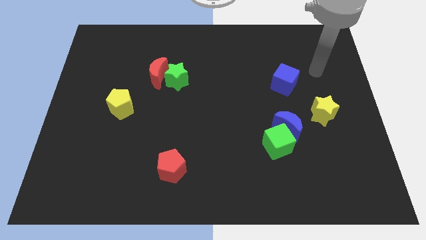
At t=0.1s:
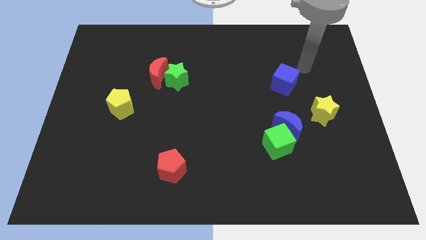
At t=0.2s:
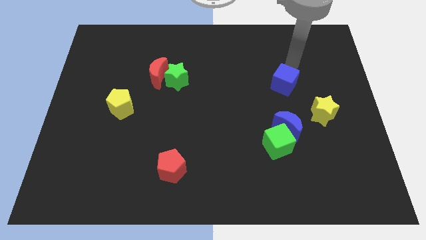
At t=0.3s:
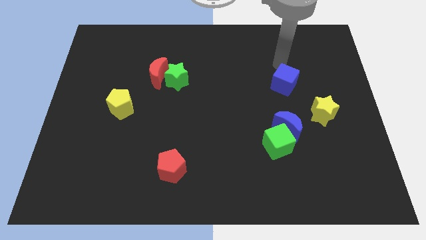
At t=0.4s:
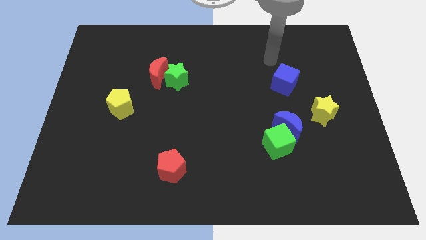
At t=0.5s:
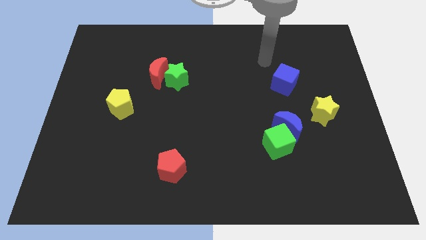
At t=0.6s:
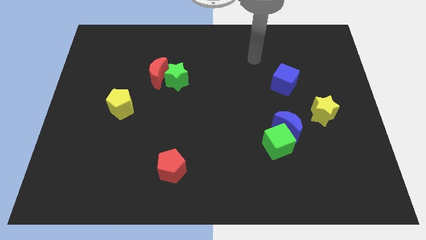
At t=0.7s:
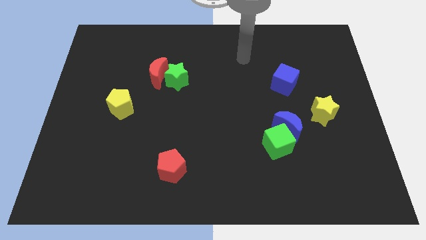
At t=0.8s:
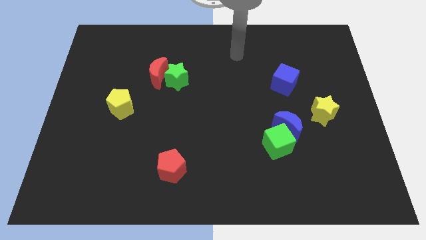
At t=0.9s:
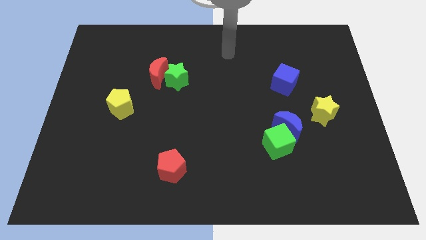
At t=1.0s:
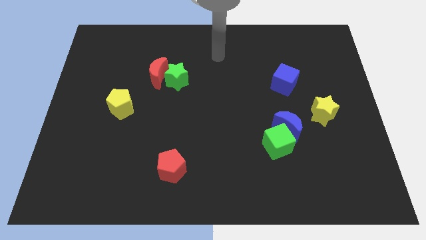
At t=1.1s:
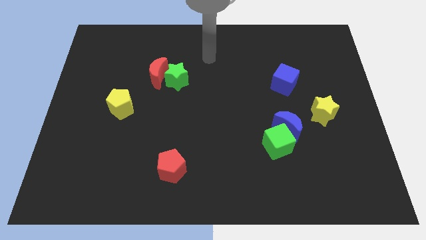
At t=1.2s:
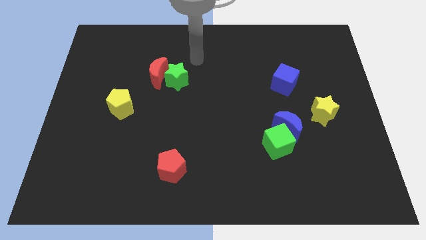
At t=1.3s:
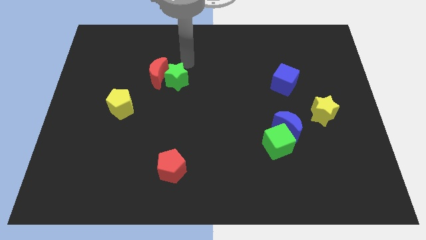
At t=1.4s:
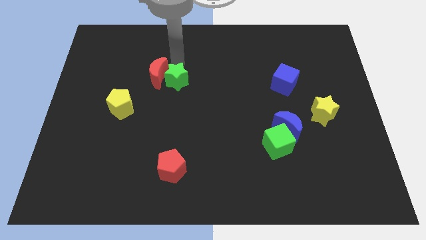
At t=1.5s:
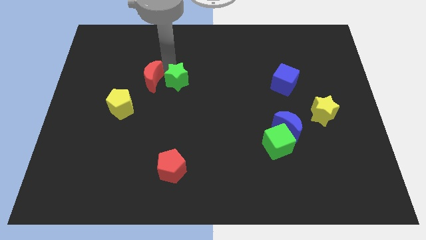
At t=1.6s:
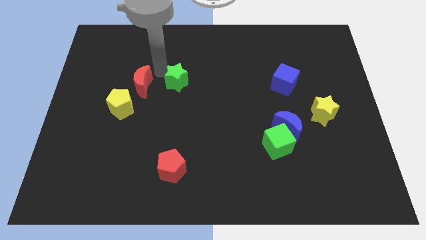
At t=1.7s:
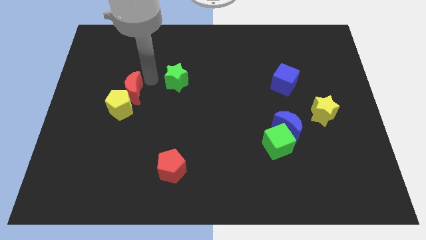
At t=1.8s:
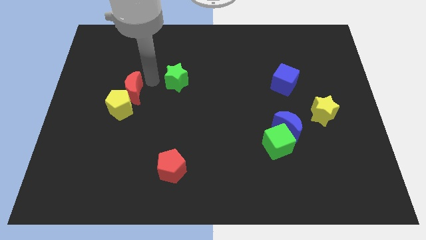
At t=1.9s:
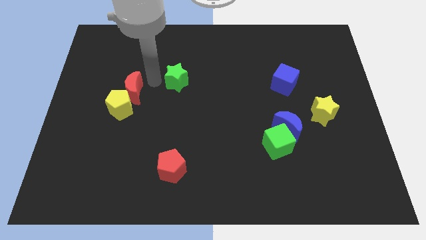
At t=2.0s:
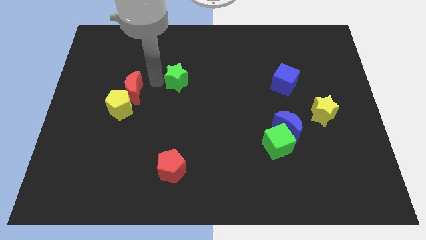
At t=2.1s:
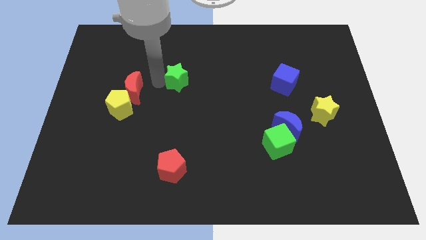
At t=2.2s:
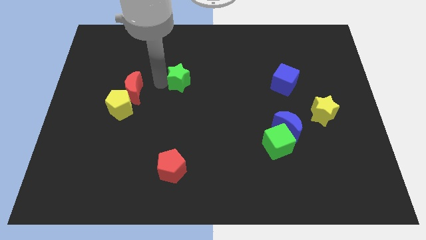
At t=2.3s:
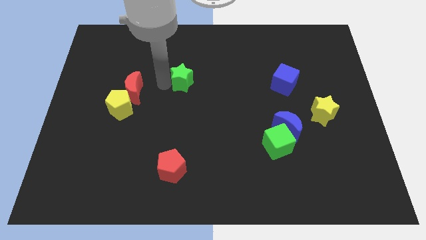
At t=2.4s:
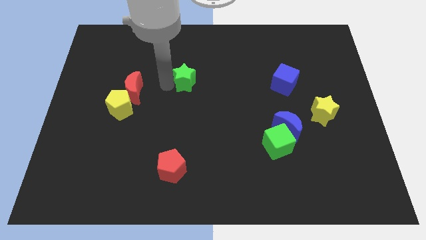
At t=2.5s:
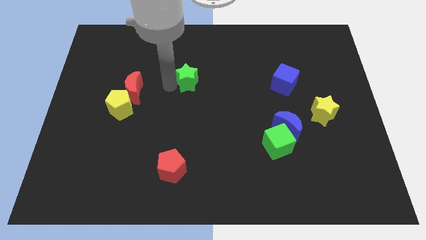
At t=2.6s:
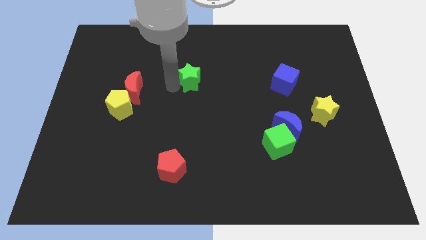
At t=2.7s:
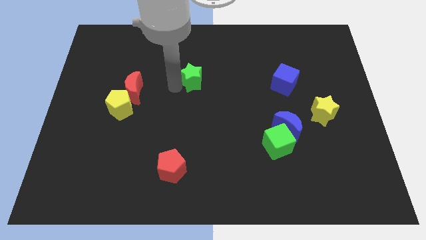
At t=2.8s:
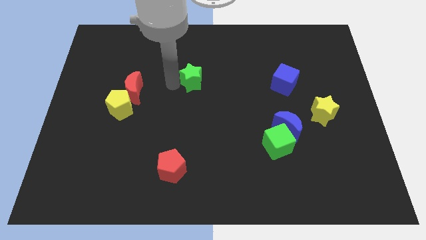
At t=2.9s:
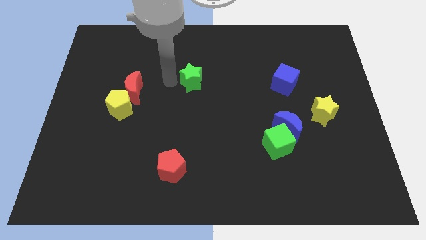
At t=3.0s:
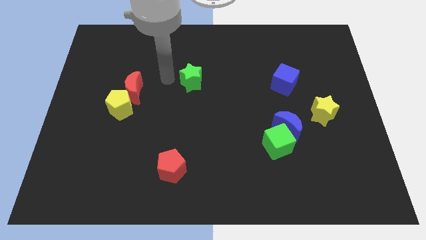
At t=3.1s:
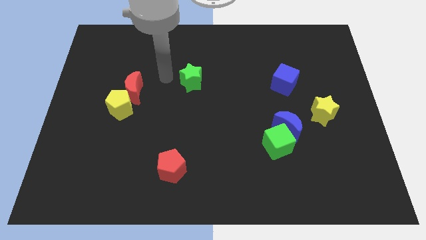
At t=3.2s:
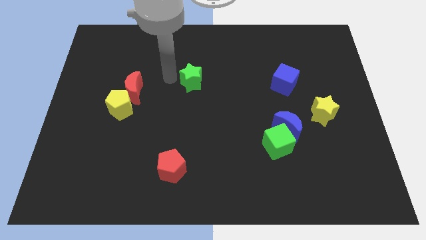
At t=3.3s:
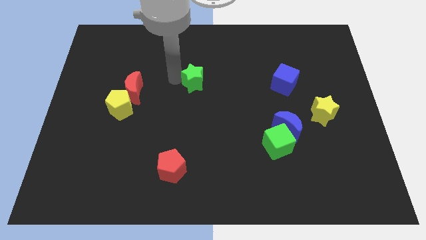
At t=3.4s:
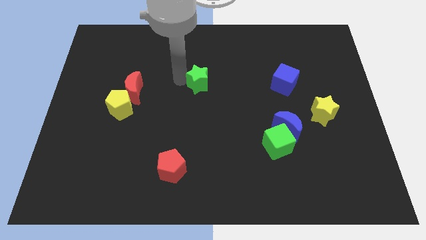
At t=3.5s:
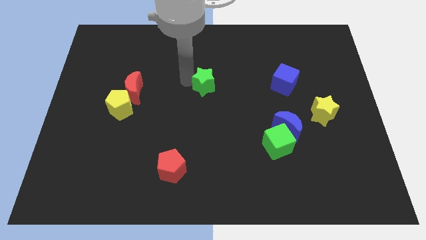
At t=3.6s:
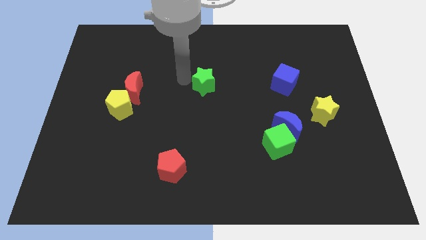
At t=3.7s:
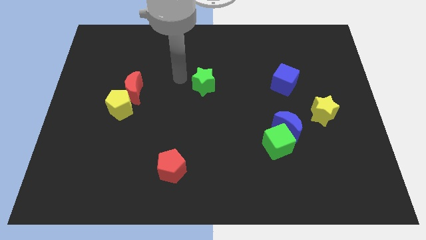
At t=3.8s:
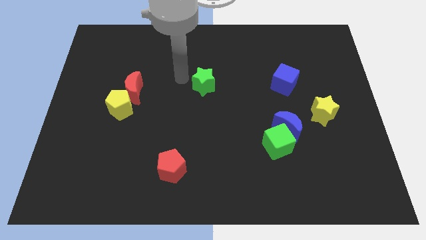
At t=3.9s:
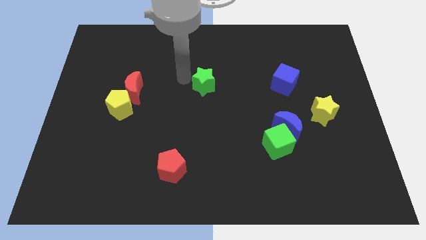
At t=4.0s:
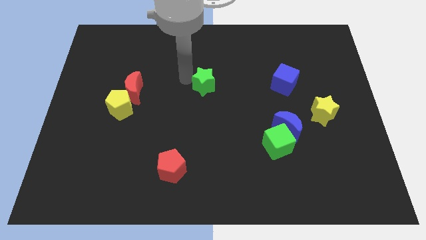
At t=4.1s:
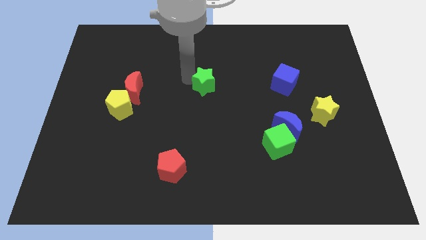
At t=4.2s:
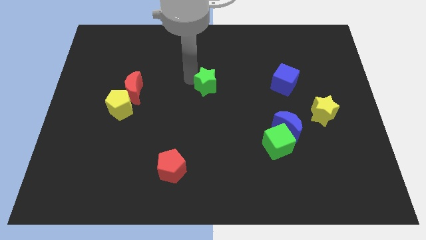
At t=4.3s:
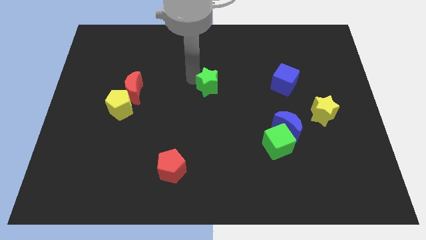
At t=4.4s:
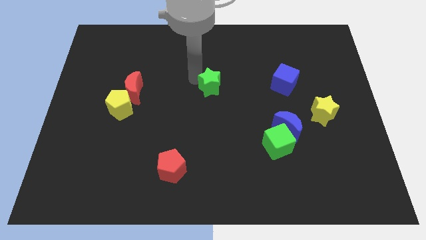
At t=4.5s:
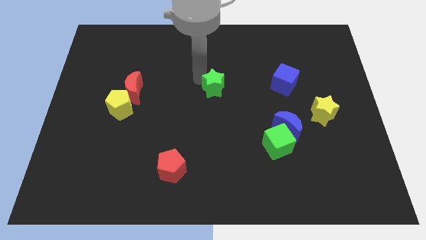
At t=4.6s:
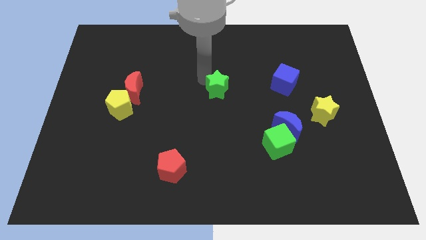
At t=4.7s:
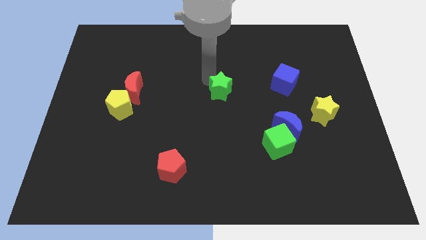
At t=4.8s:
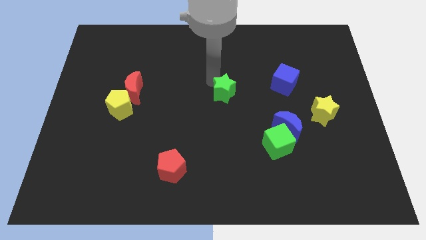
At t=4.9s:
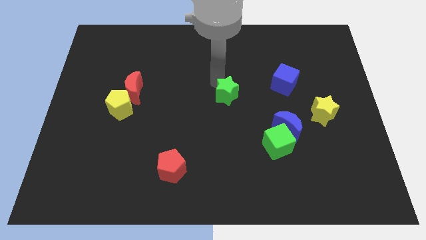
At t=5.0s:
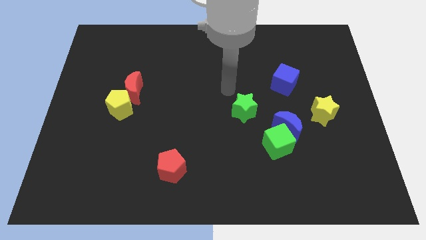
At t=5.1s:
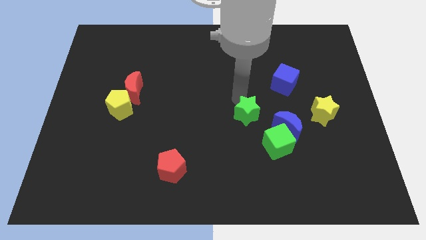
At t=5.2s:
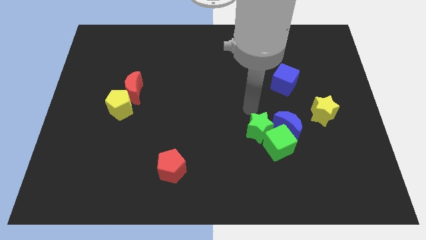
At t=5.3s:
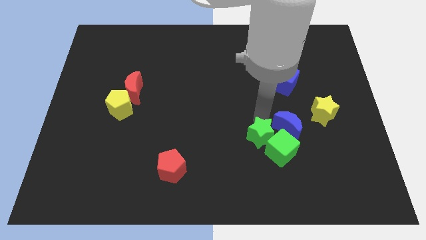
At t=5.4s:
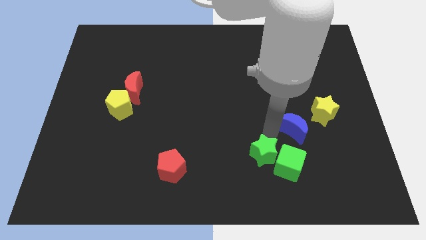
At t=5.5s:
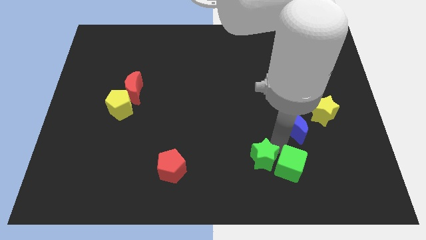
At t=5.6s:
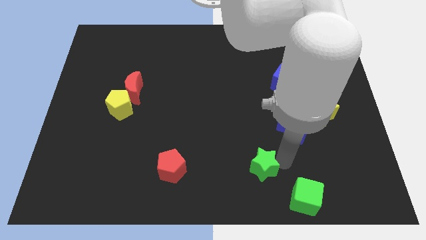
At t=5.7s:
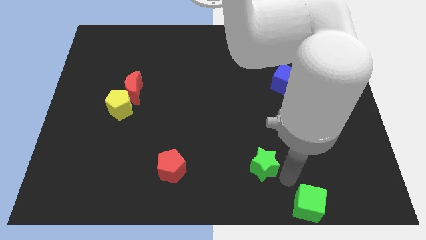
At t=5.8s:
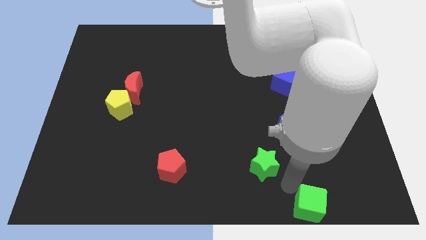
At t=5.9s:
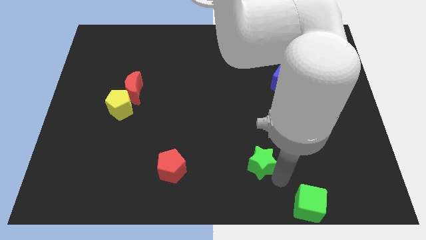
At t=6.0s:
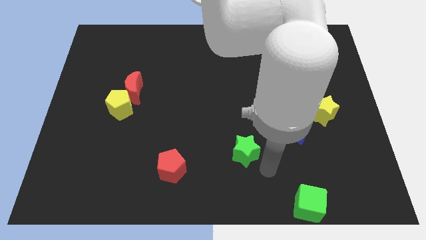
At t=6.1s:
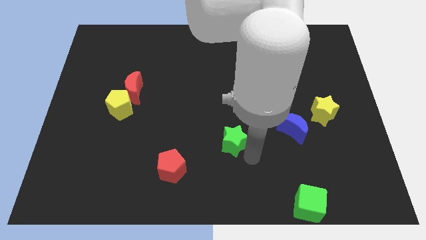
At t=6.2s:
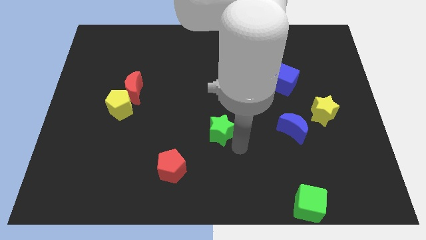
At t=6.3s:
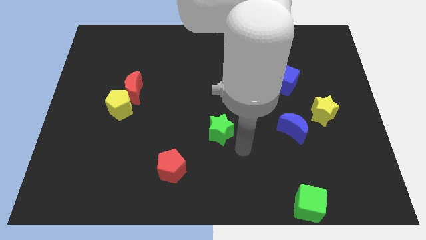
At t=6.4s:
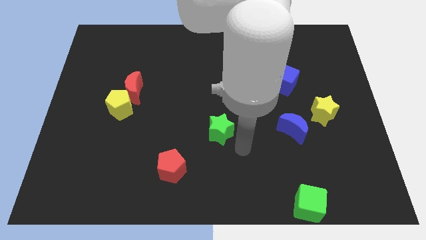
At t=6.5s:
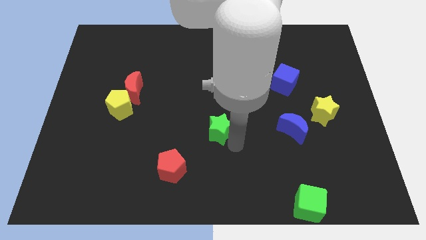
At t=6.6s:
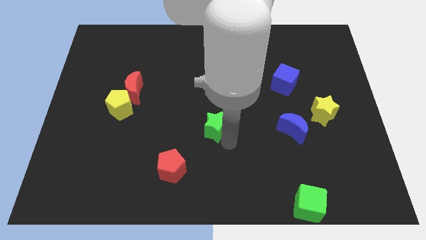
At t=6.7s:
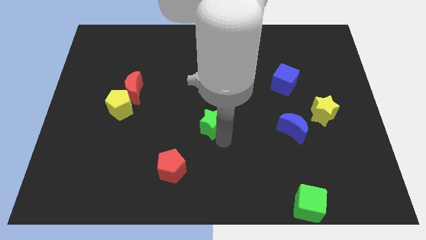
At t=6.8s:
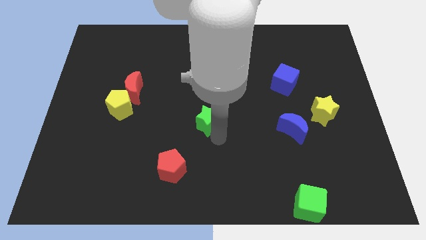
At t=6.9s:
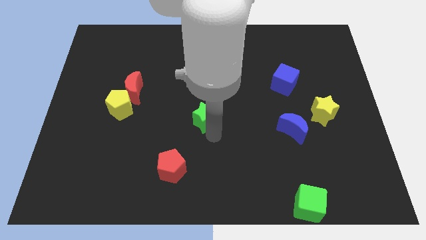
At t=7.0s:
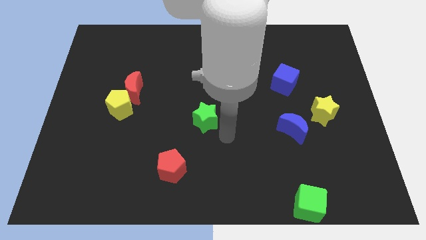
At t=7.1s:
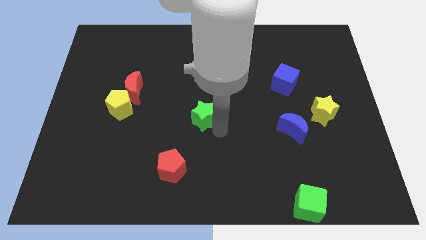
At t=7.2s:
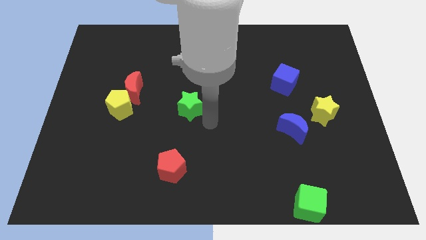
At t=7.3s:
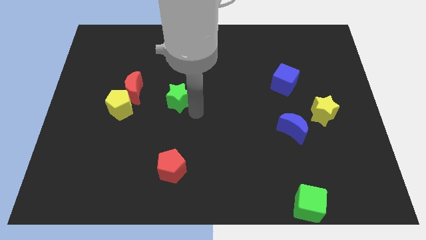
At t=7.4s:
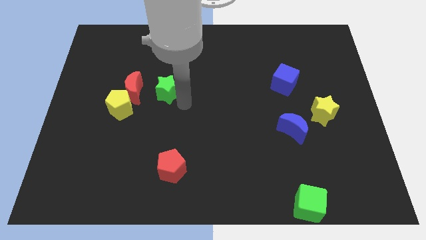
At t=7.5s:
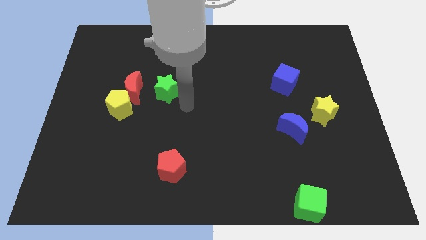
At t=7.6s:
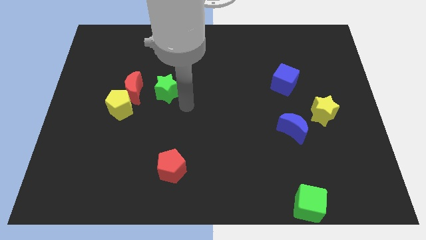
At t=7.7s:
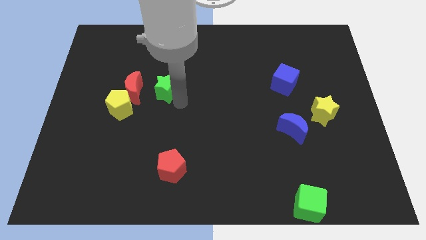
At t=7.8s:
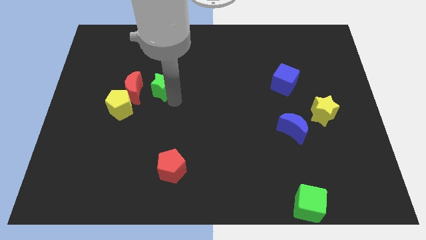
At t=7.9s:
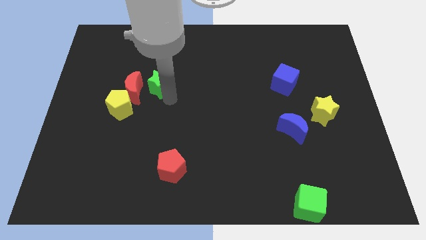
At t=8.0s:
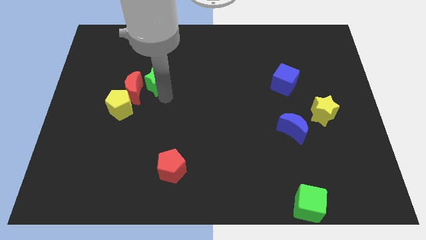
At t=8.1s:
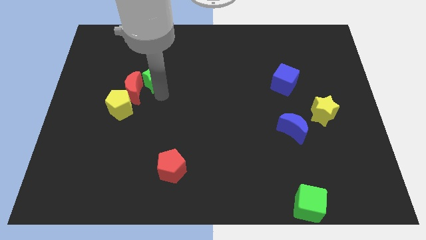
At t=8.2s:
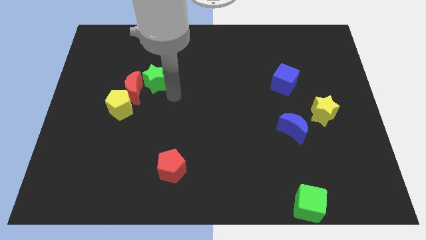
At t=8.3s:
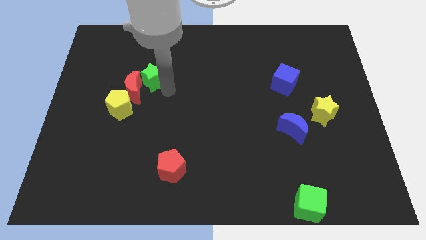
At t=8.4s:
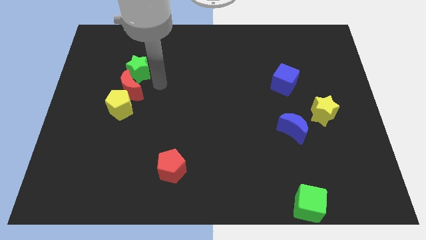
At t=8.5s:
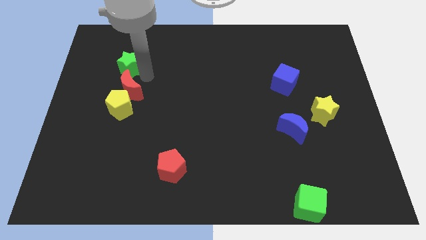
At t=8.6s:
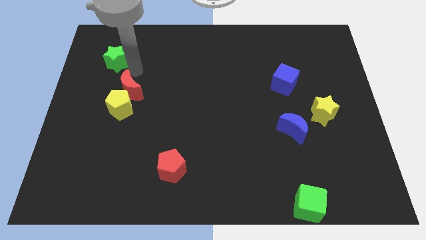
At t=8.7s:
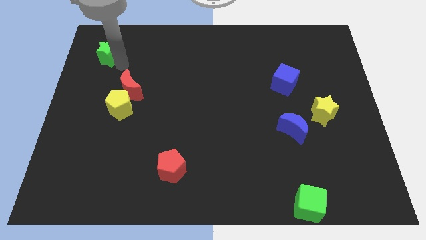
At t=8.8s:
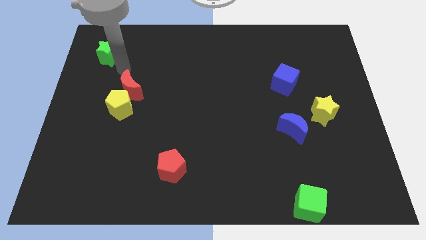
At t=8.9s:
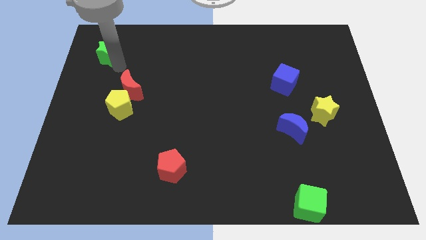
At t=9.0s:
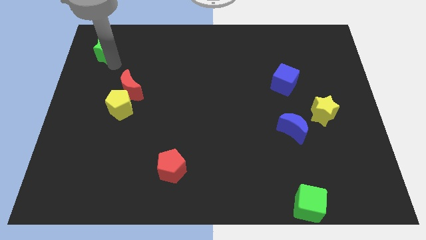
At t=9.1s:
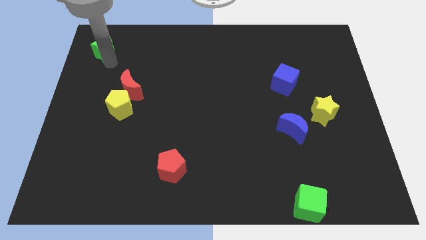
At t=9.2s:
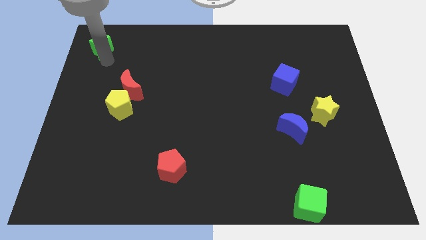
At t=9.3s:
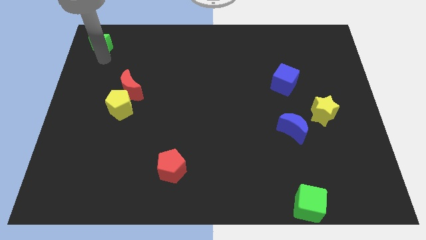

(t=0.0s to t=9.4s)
push the green star to the top left corner
